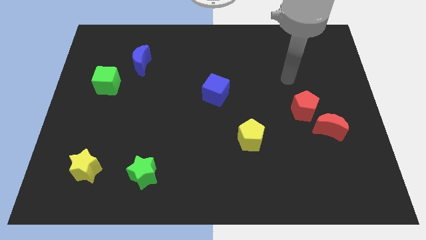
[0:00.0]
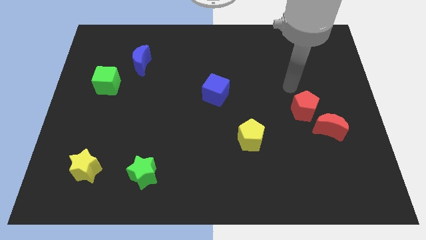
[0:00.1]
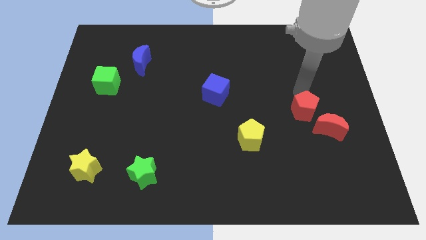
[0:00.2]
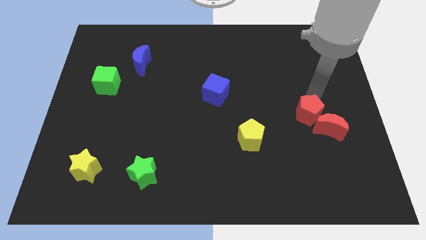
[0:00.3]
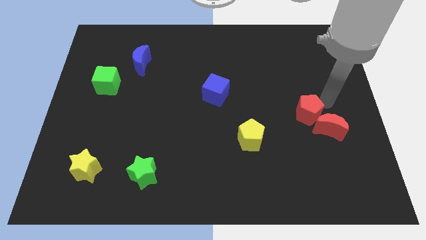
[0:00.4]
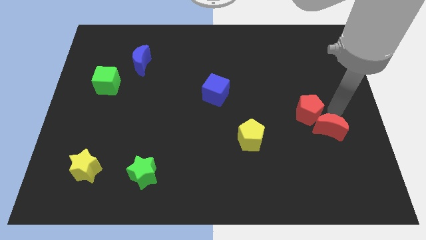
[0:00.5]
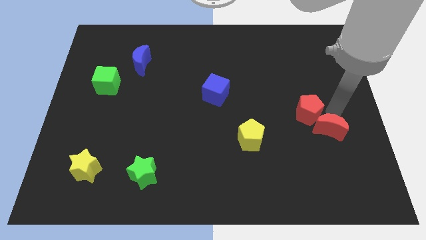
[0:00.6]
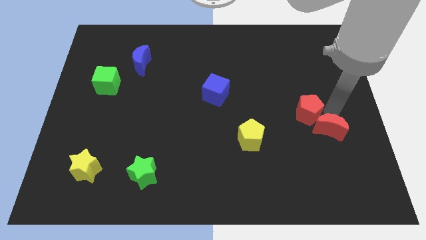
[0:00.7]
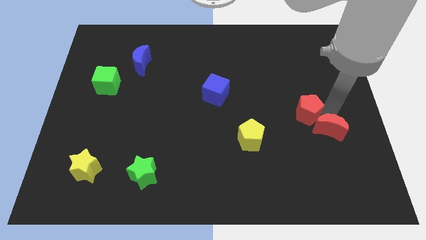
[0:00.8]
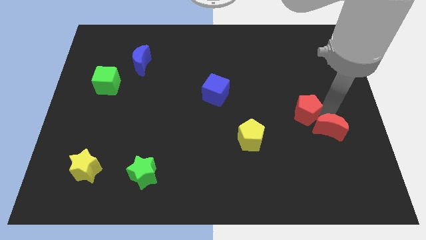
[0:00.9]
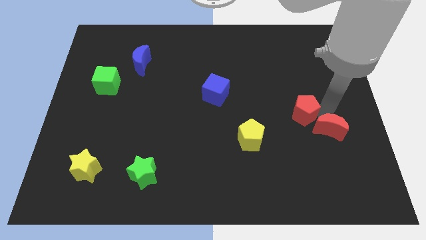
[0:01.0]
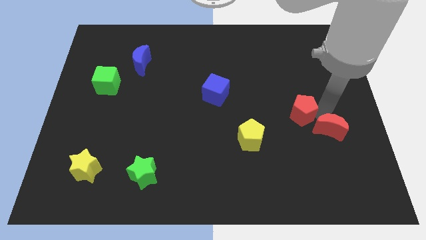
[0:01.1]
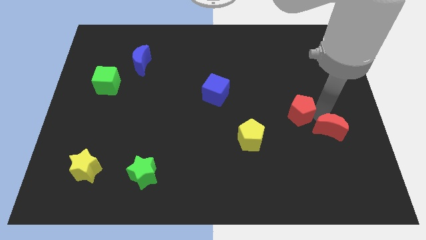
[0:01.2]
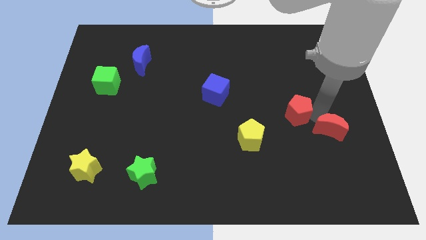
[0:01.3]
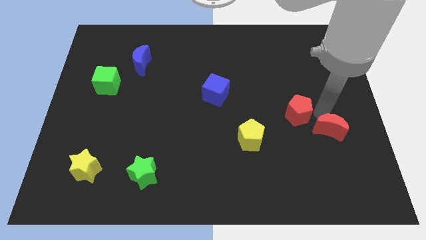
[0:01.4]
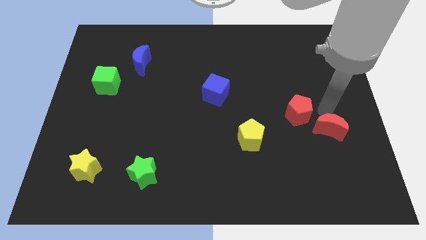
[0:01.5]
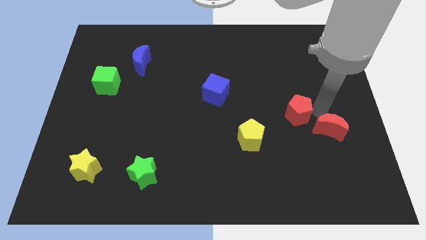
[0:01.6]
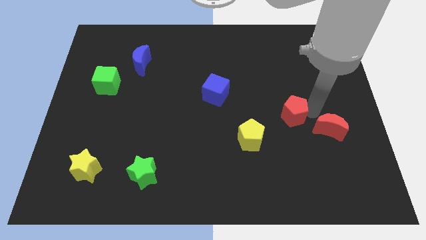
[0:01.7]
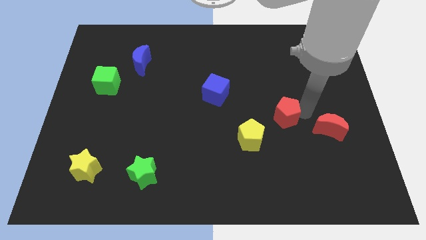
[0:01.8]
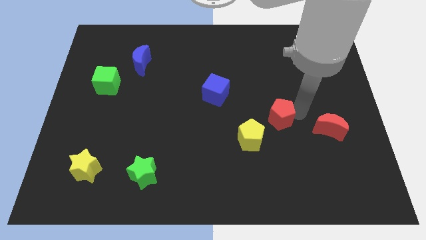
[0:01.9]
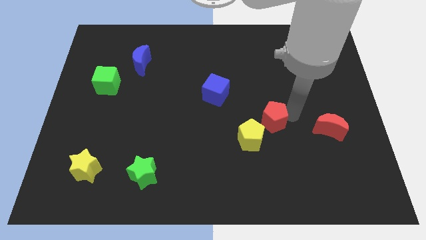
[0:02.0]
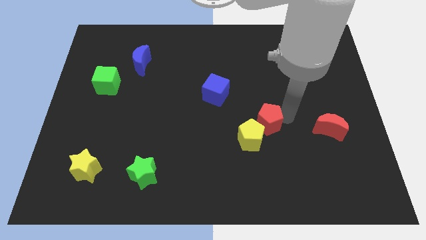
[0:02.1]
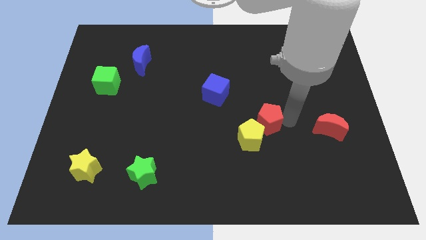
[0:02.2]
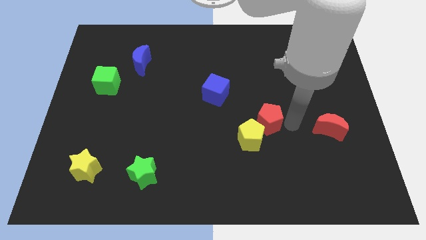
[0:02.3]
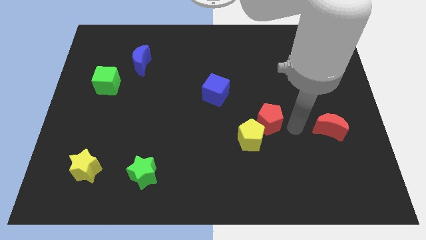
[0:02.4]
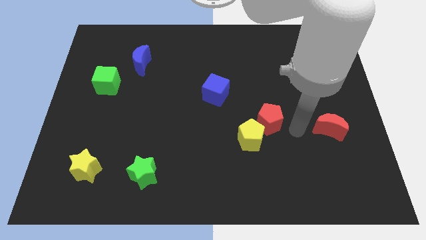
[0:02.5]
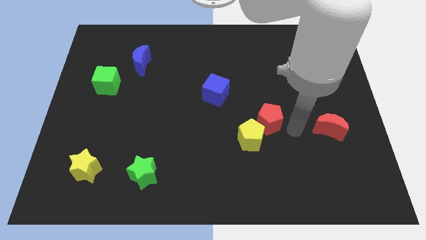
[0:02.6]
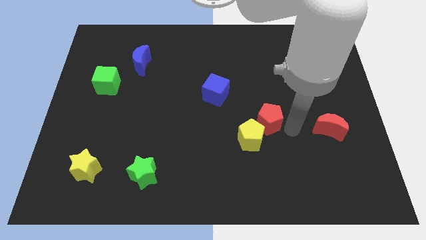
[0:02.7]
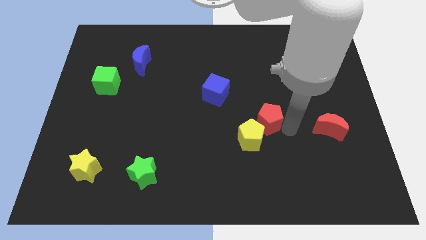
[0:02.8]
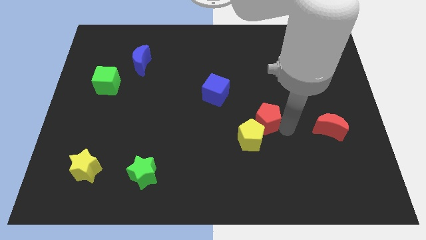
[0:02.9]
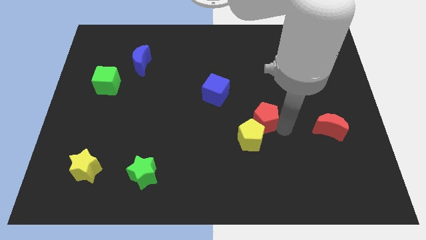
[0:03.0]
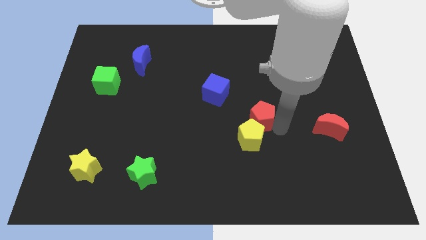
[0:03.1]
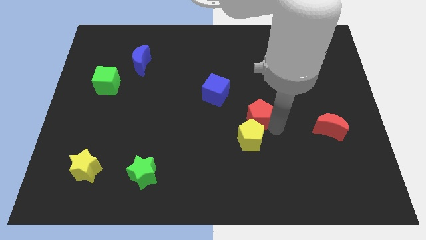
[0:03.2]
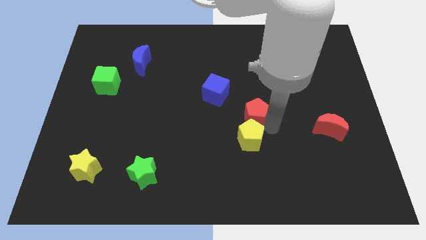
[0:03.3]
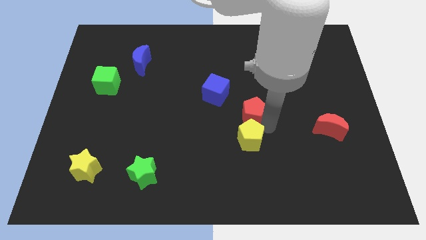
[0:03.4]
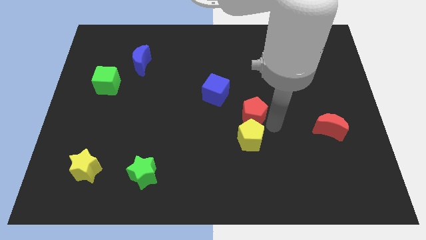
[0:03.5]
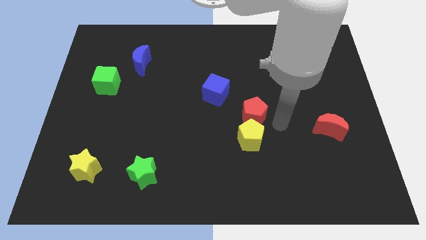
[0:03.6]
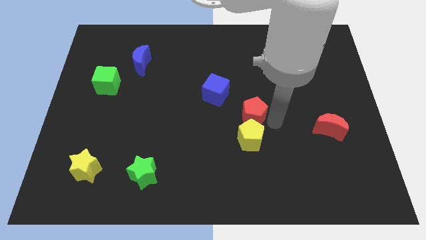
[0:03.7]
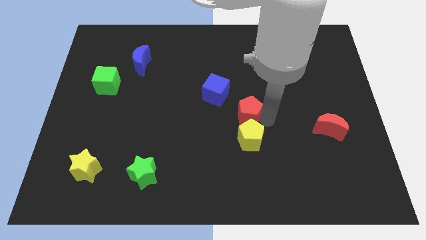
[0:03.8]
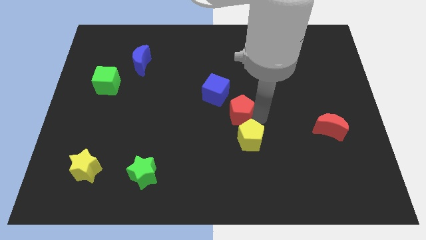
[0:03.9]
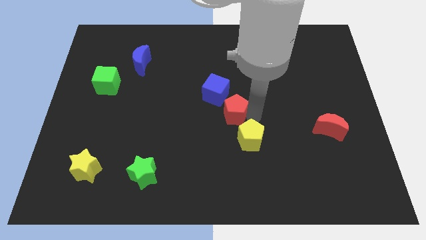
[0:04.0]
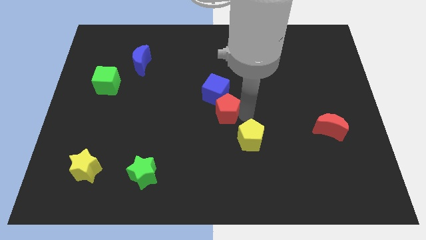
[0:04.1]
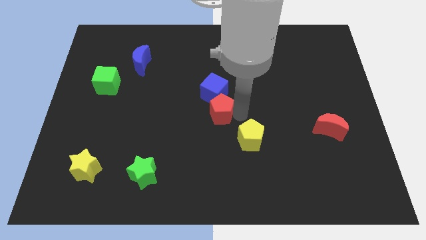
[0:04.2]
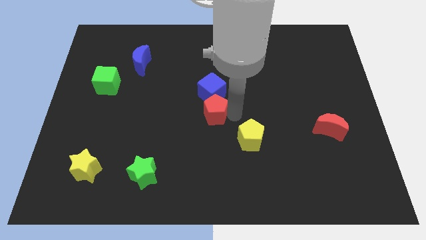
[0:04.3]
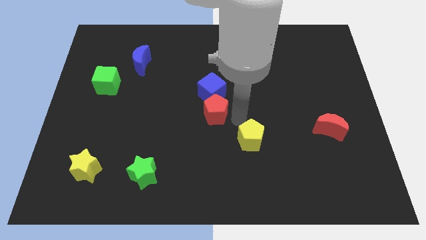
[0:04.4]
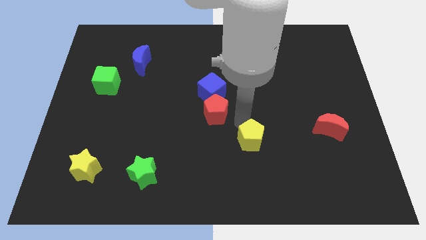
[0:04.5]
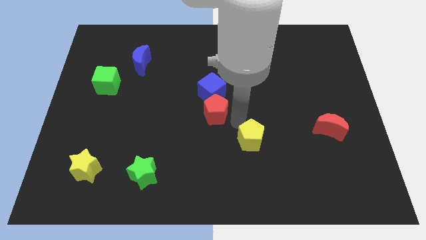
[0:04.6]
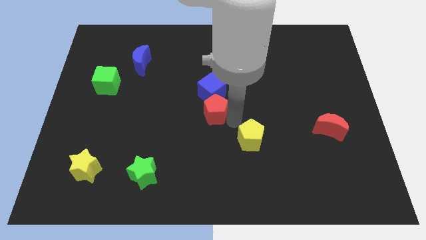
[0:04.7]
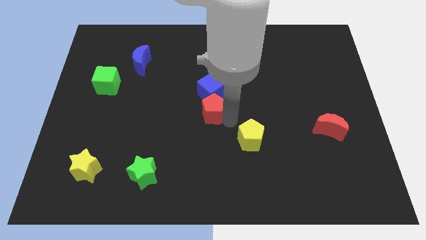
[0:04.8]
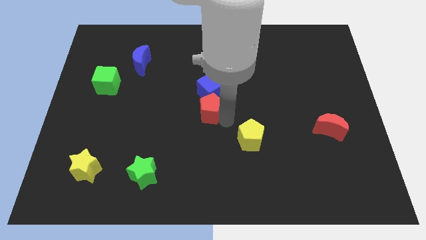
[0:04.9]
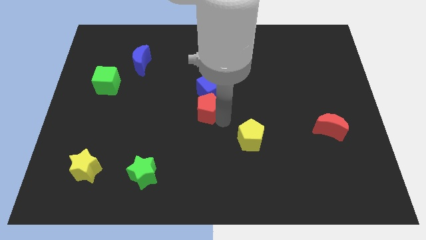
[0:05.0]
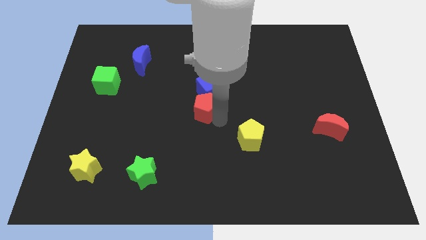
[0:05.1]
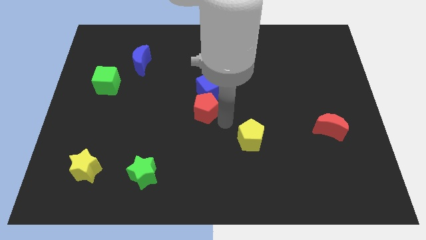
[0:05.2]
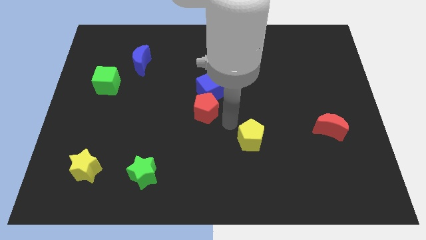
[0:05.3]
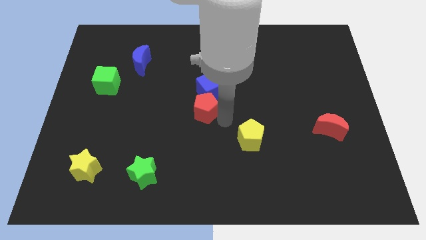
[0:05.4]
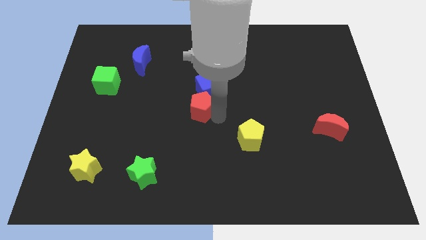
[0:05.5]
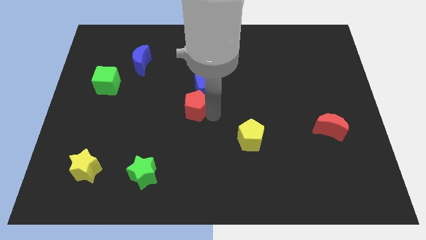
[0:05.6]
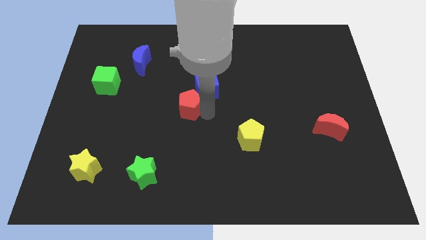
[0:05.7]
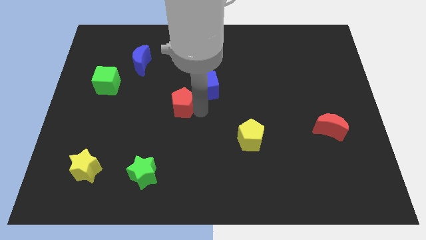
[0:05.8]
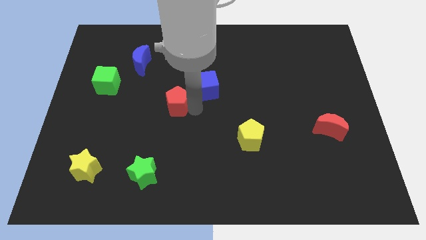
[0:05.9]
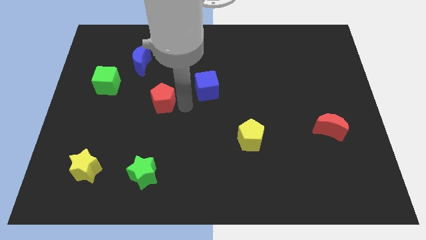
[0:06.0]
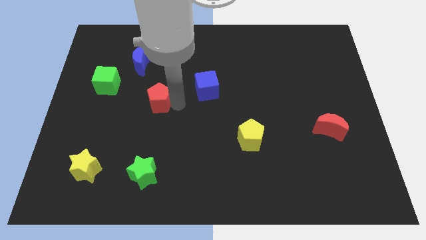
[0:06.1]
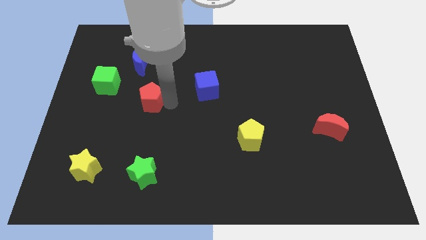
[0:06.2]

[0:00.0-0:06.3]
push the red pentagon below the blue moon
